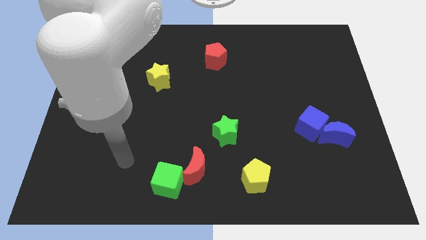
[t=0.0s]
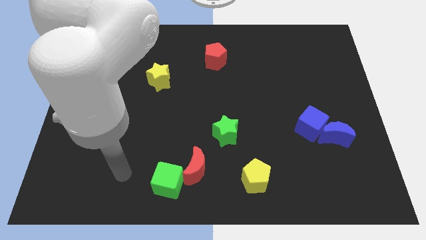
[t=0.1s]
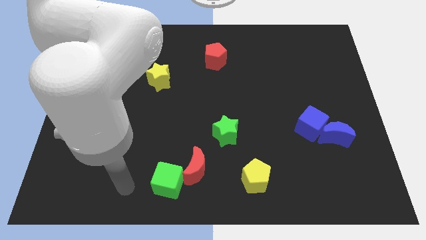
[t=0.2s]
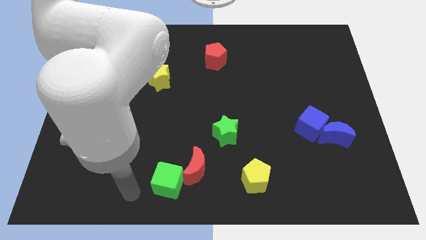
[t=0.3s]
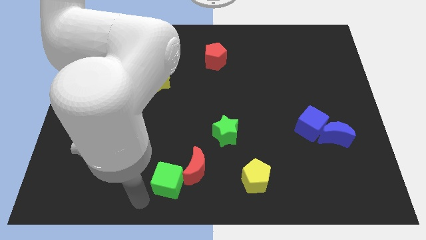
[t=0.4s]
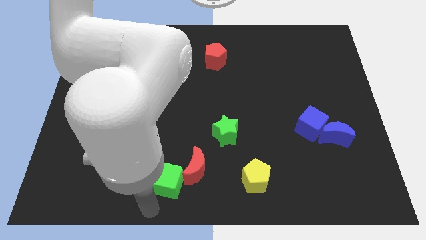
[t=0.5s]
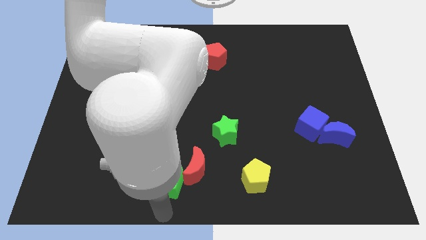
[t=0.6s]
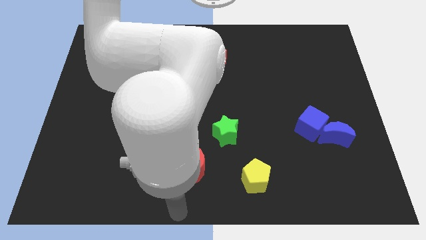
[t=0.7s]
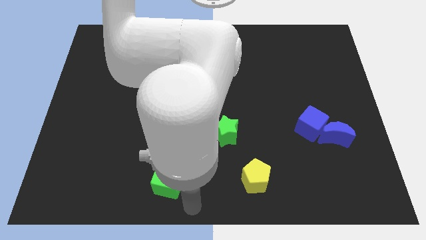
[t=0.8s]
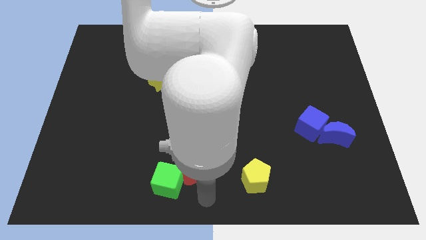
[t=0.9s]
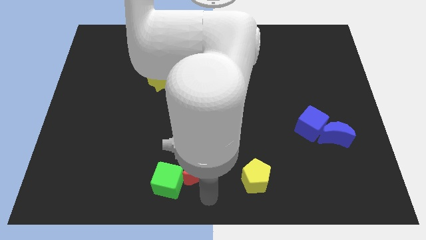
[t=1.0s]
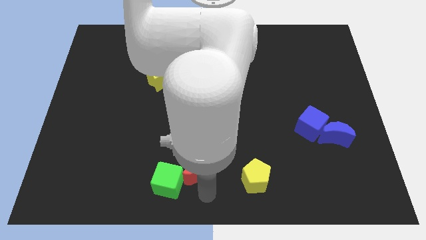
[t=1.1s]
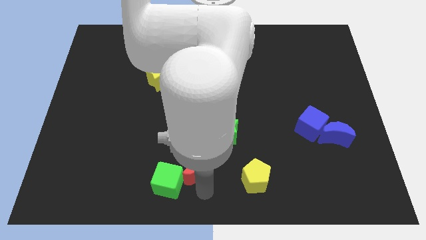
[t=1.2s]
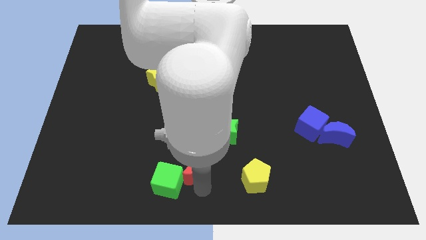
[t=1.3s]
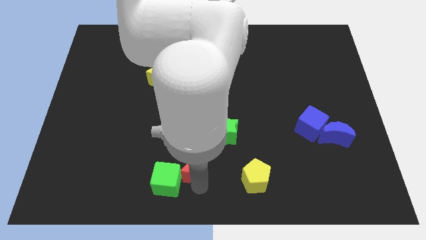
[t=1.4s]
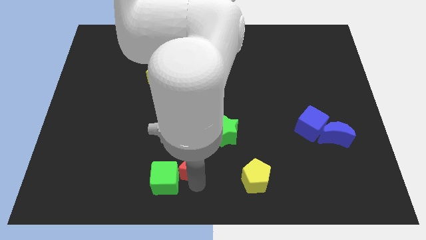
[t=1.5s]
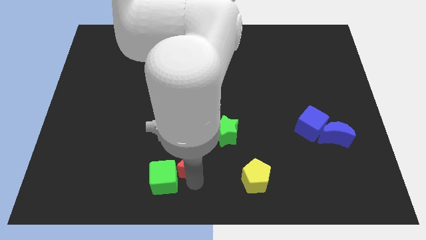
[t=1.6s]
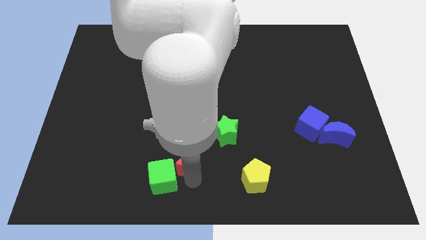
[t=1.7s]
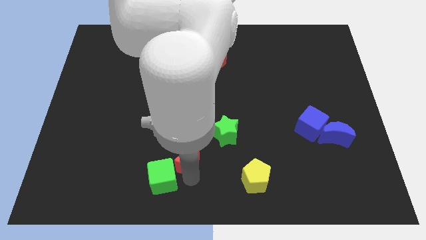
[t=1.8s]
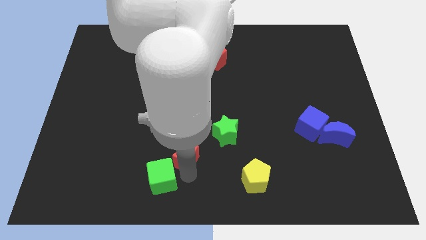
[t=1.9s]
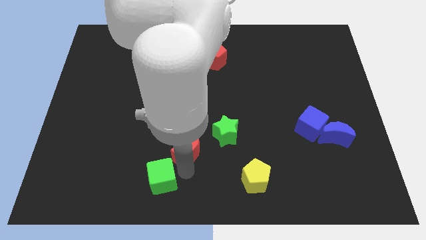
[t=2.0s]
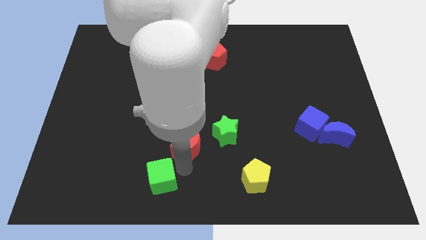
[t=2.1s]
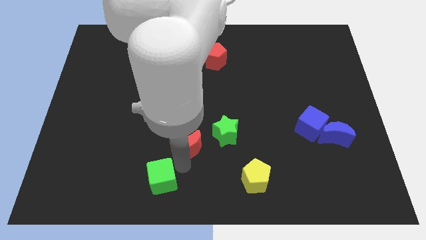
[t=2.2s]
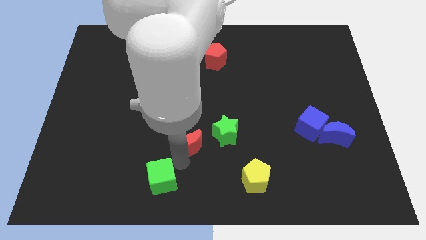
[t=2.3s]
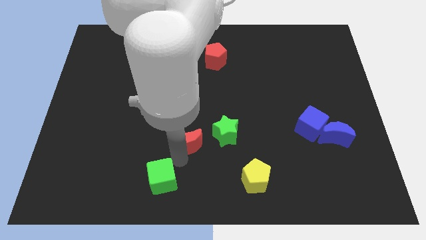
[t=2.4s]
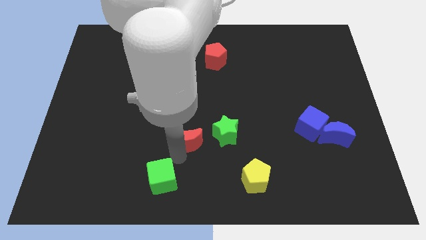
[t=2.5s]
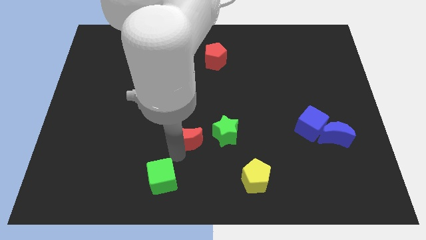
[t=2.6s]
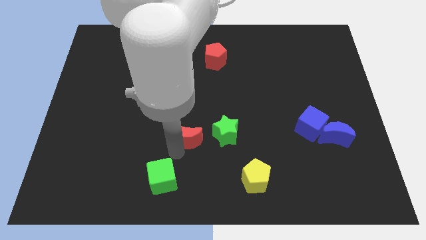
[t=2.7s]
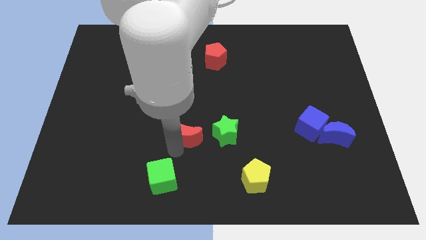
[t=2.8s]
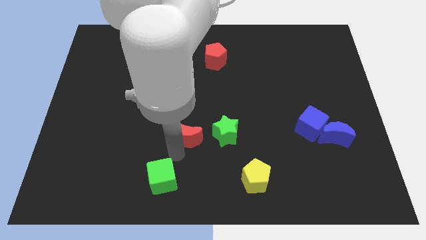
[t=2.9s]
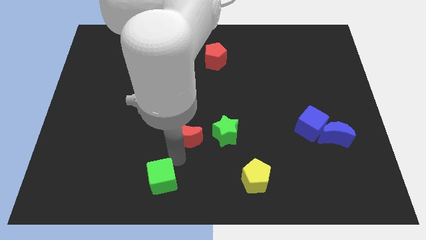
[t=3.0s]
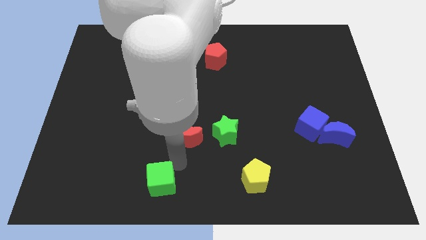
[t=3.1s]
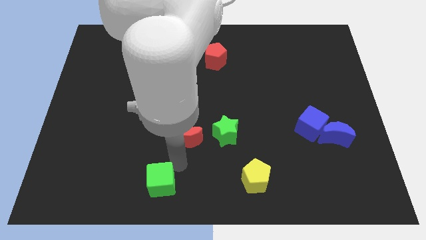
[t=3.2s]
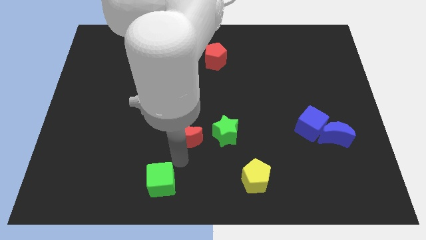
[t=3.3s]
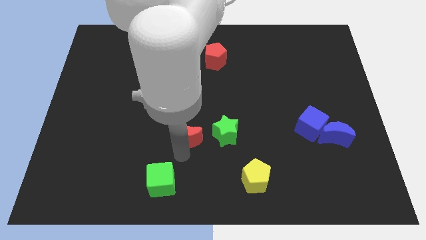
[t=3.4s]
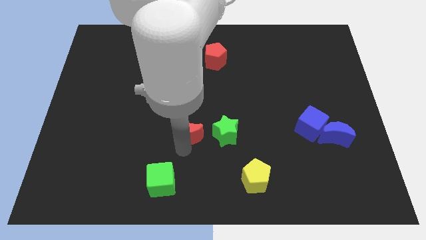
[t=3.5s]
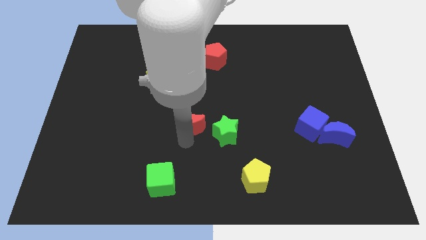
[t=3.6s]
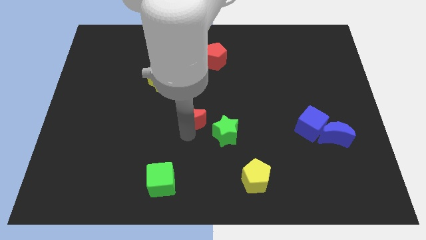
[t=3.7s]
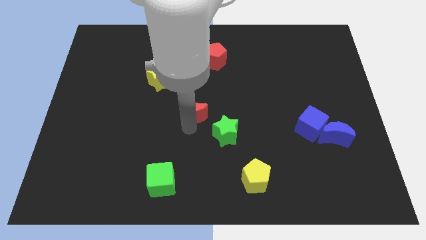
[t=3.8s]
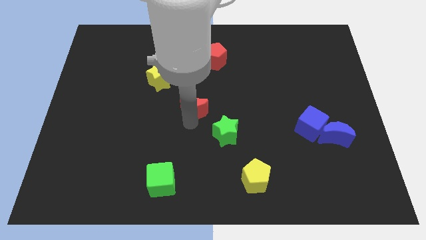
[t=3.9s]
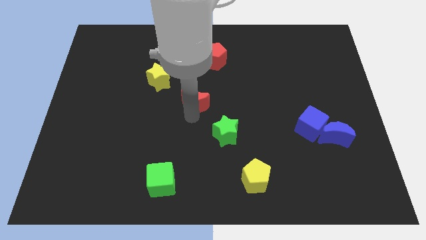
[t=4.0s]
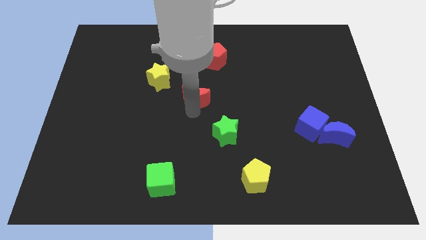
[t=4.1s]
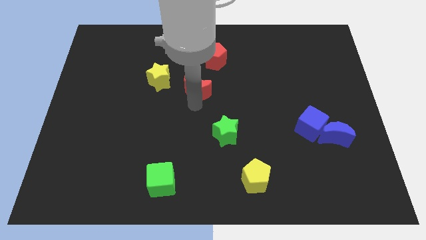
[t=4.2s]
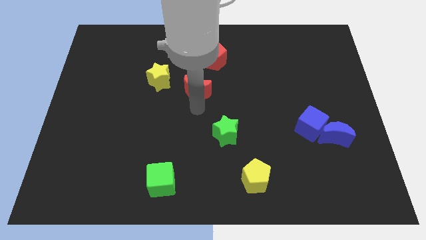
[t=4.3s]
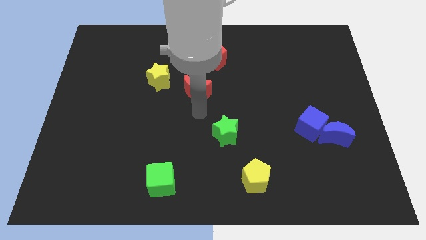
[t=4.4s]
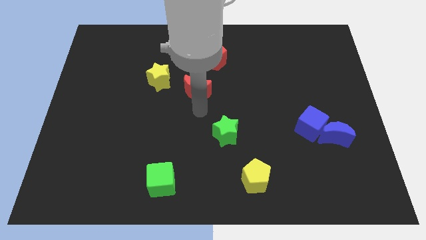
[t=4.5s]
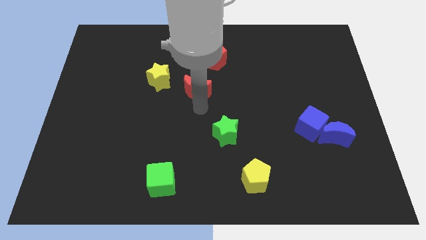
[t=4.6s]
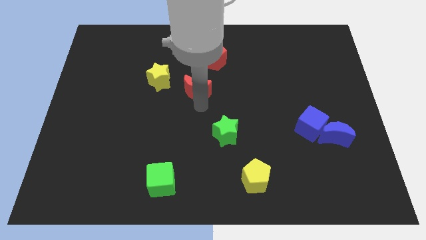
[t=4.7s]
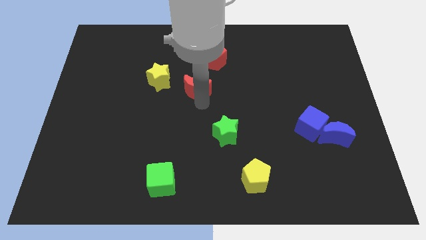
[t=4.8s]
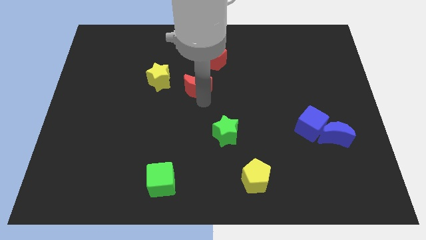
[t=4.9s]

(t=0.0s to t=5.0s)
put the red moon to the bottom left of the red pentagon

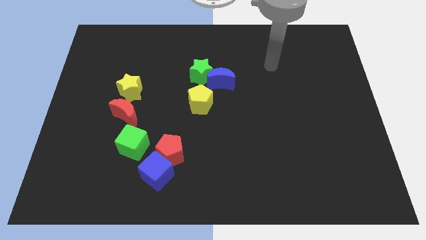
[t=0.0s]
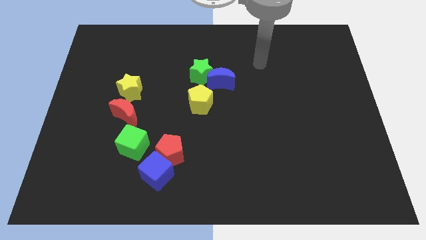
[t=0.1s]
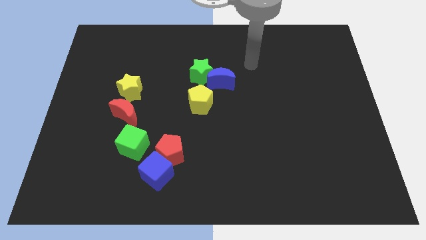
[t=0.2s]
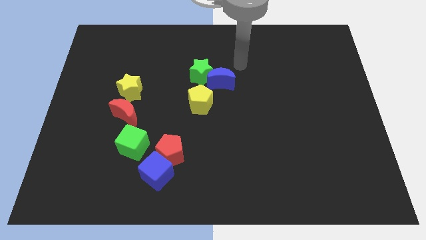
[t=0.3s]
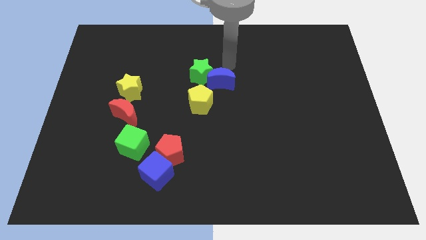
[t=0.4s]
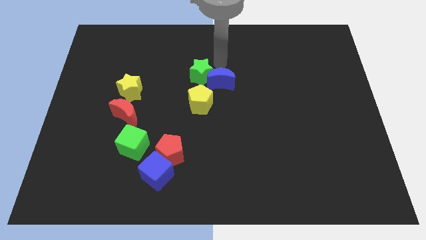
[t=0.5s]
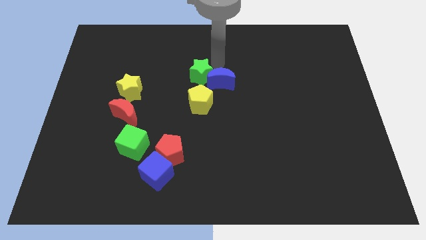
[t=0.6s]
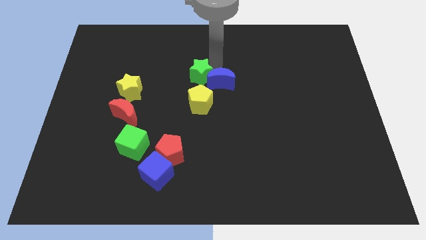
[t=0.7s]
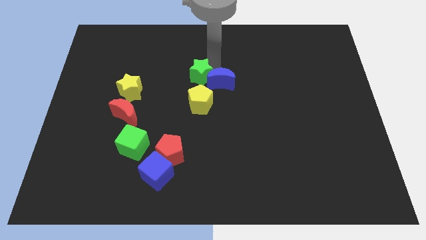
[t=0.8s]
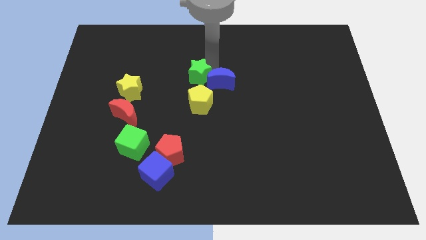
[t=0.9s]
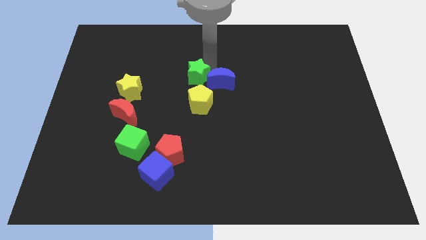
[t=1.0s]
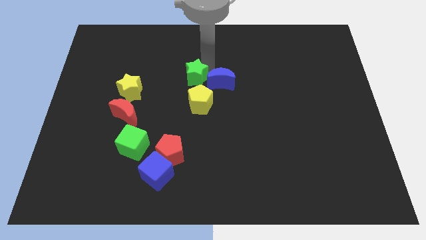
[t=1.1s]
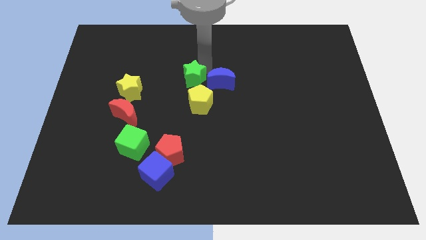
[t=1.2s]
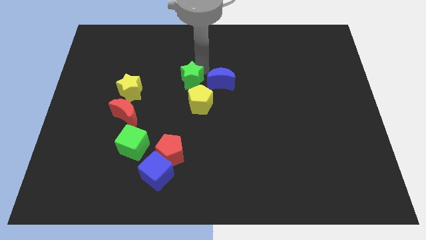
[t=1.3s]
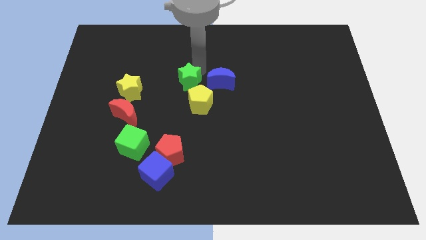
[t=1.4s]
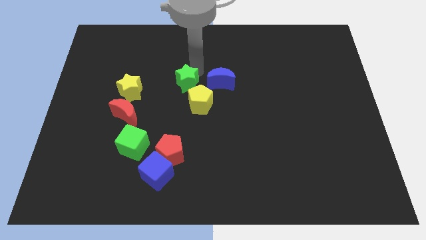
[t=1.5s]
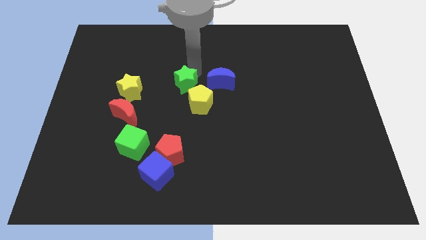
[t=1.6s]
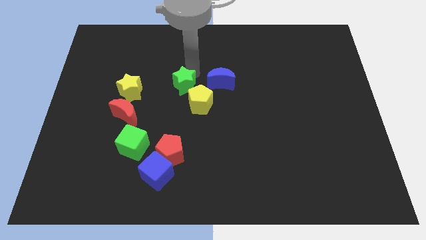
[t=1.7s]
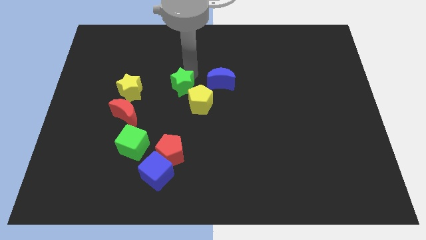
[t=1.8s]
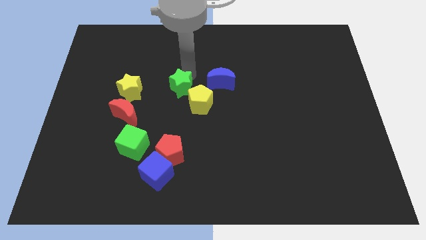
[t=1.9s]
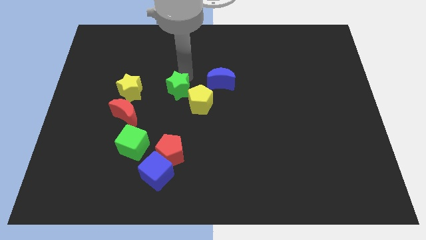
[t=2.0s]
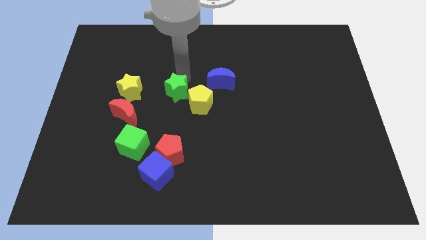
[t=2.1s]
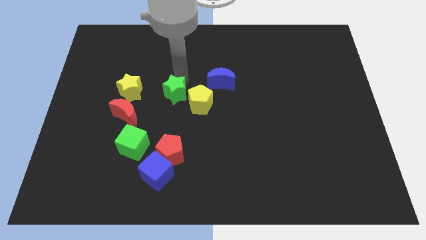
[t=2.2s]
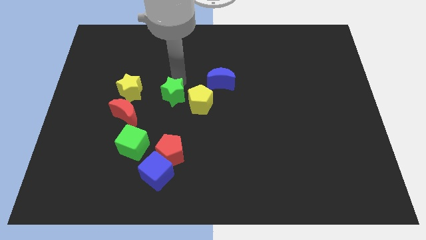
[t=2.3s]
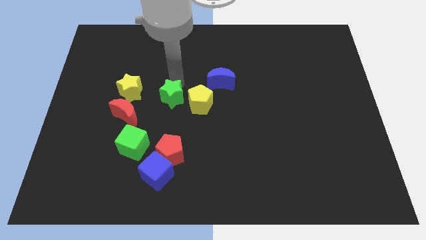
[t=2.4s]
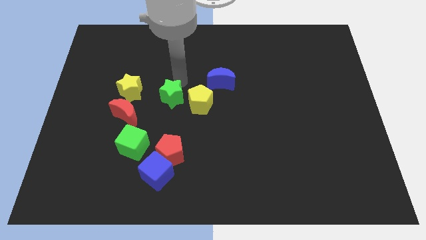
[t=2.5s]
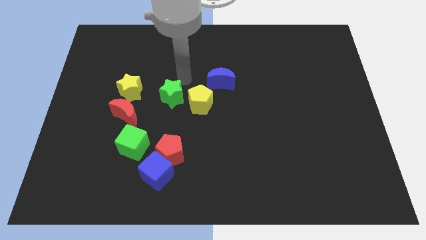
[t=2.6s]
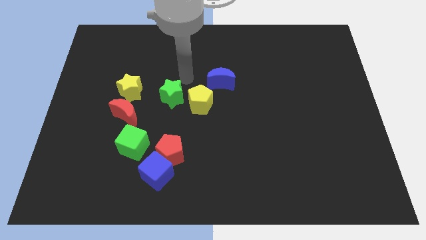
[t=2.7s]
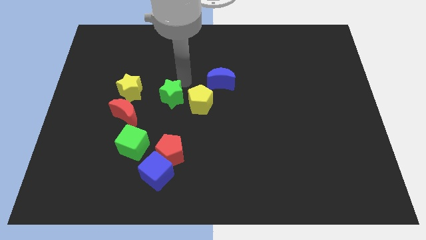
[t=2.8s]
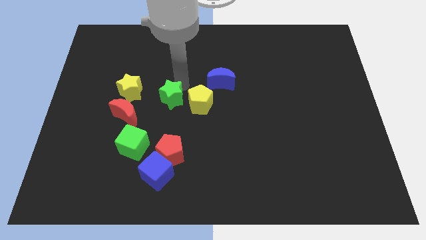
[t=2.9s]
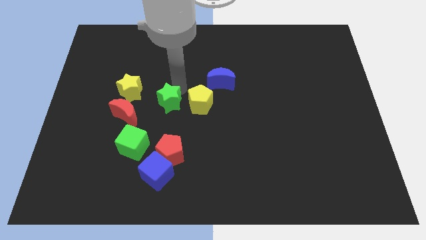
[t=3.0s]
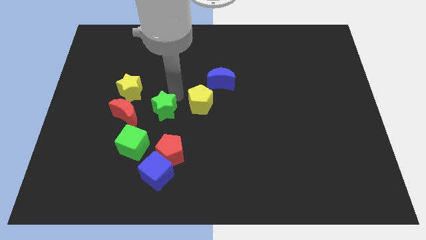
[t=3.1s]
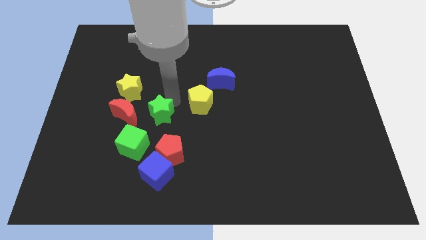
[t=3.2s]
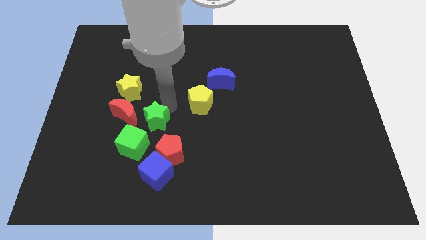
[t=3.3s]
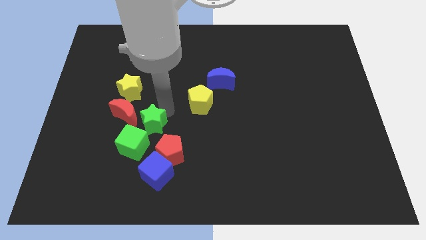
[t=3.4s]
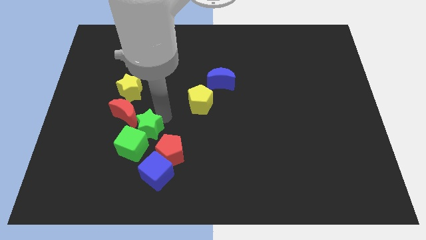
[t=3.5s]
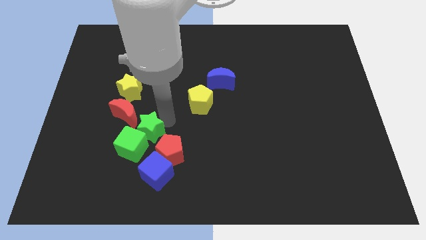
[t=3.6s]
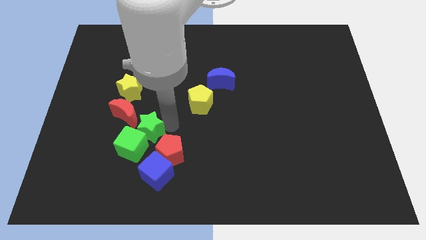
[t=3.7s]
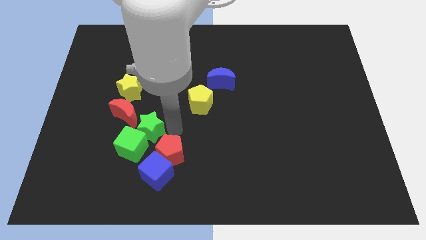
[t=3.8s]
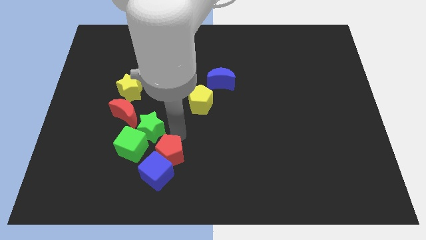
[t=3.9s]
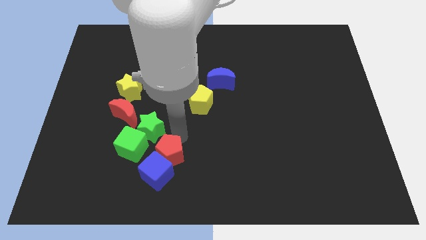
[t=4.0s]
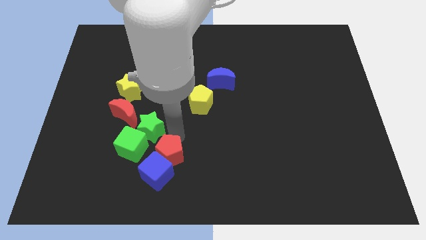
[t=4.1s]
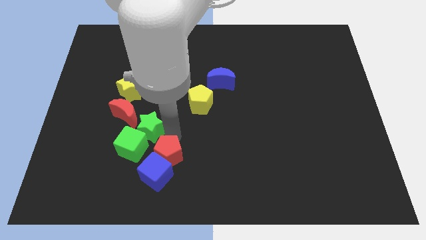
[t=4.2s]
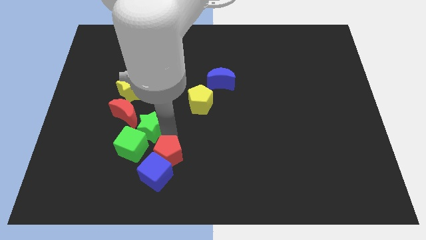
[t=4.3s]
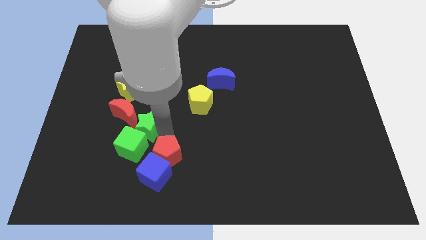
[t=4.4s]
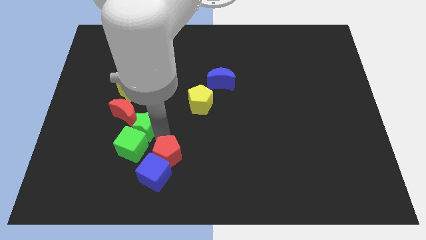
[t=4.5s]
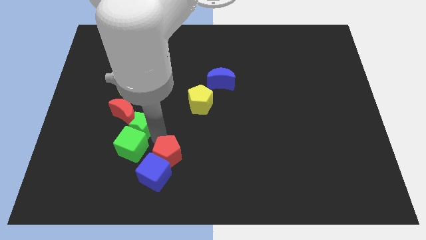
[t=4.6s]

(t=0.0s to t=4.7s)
slide the green star to the bottom of the yellow star
